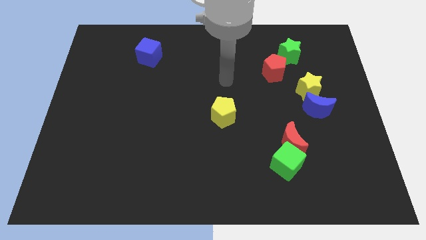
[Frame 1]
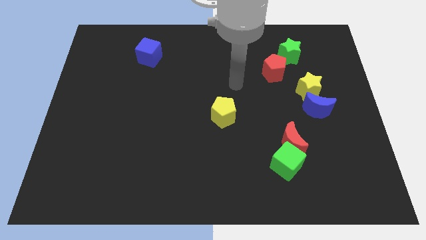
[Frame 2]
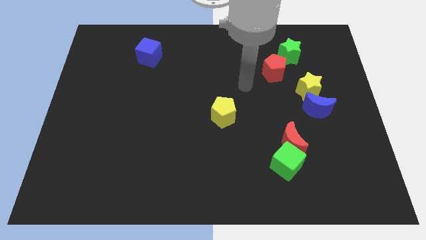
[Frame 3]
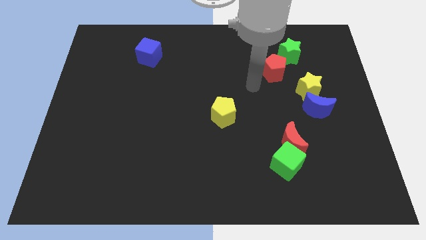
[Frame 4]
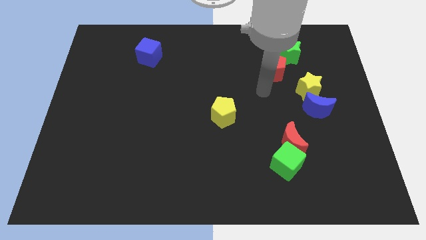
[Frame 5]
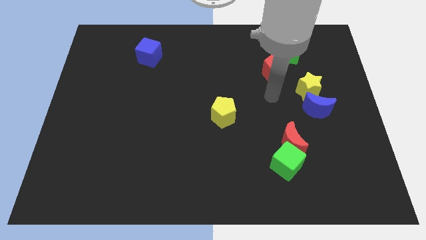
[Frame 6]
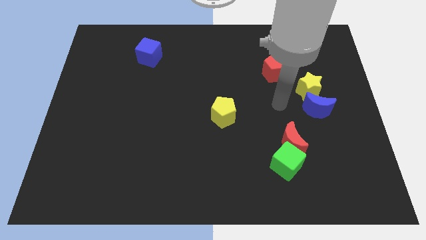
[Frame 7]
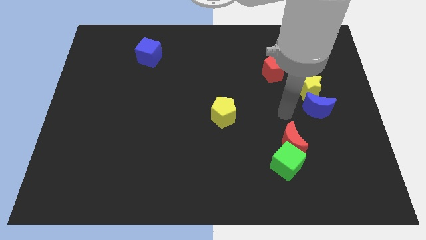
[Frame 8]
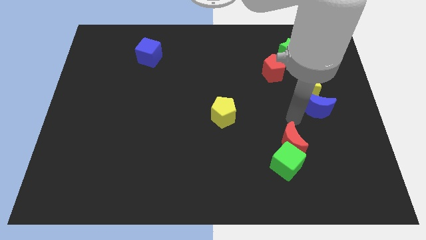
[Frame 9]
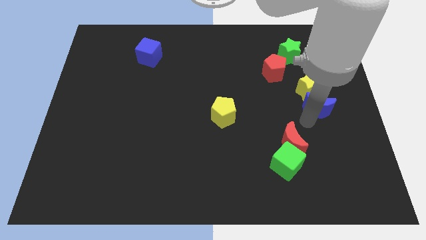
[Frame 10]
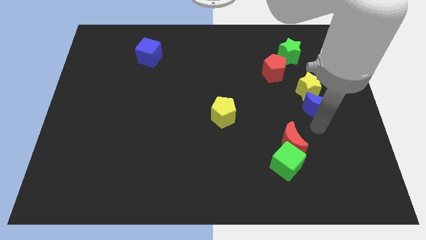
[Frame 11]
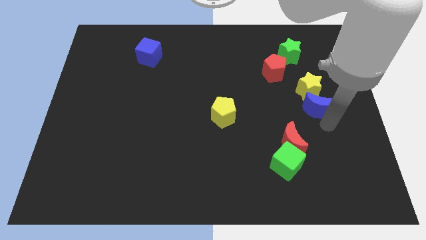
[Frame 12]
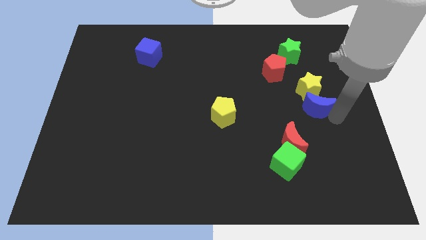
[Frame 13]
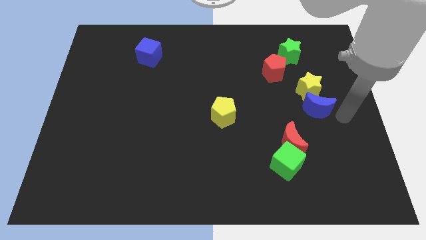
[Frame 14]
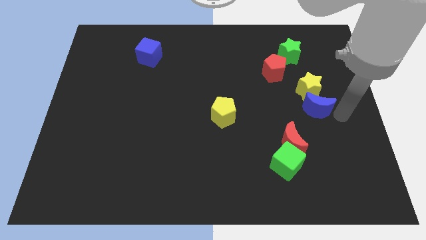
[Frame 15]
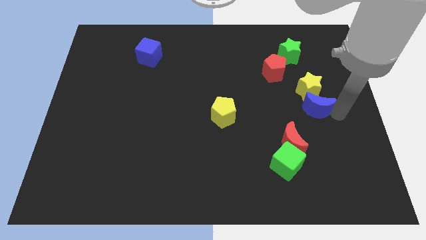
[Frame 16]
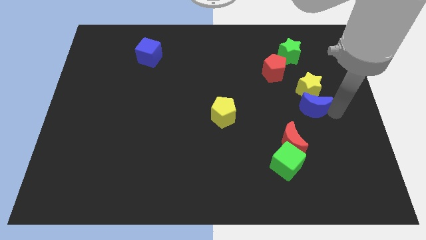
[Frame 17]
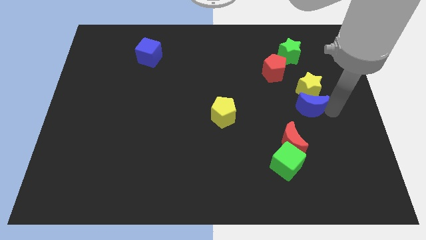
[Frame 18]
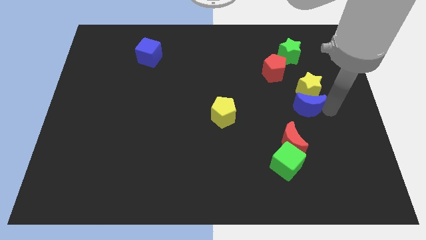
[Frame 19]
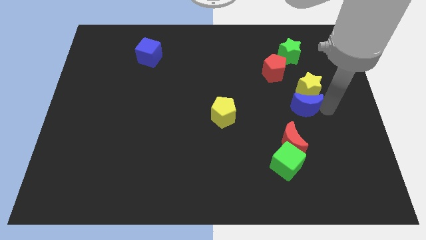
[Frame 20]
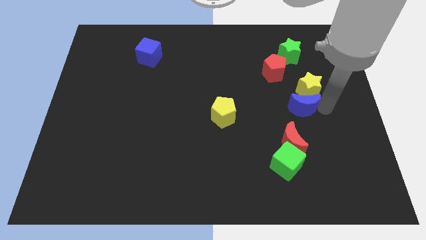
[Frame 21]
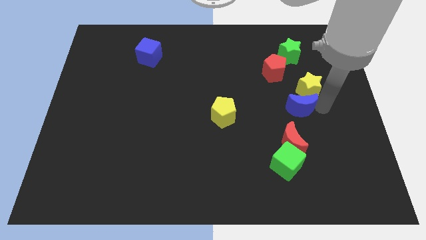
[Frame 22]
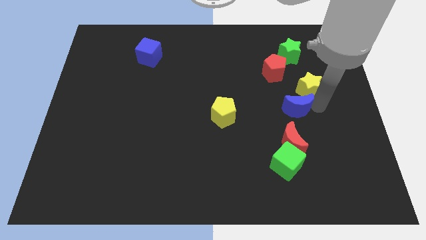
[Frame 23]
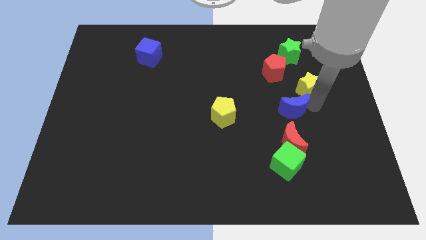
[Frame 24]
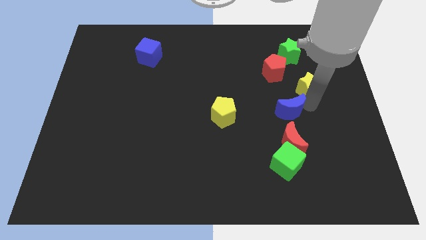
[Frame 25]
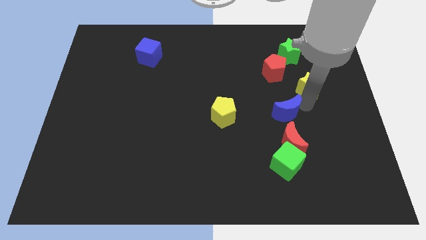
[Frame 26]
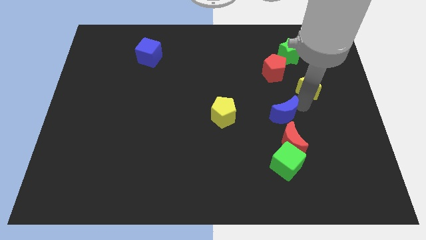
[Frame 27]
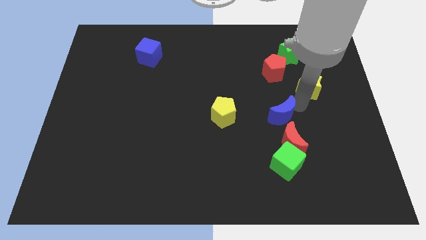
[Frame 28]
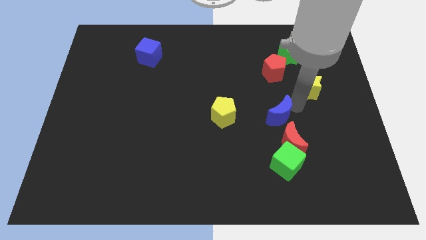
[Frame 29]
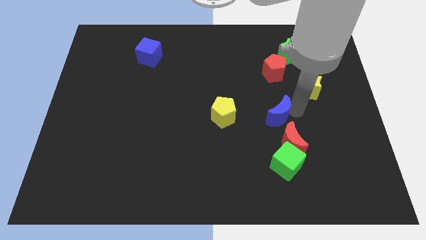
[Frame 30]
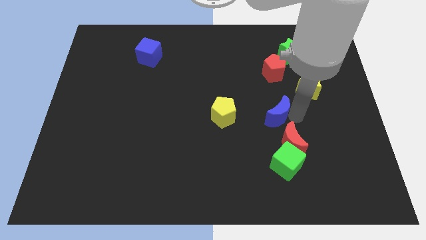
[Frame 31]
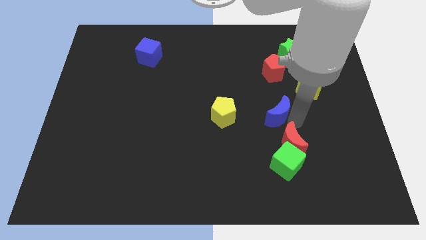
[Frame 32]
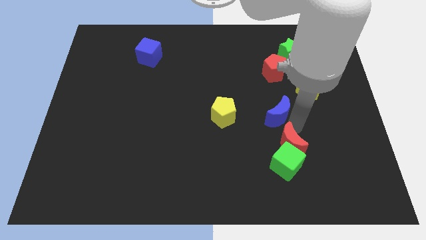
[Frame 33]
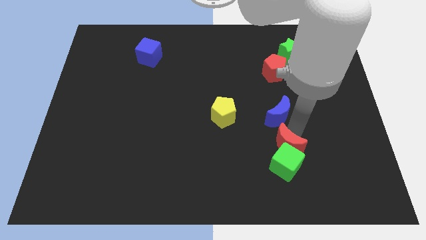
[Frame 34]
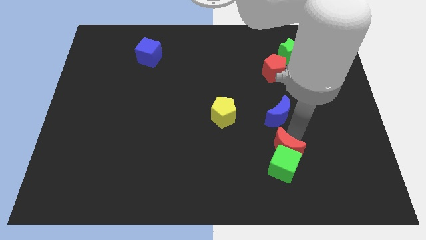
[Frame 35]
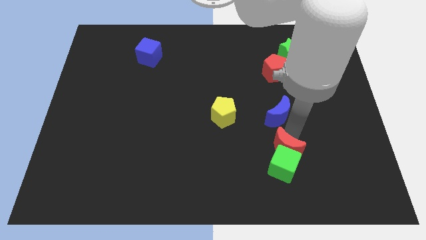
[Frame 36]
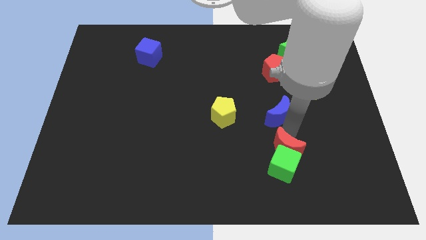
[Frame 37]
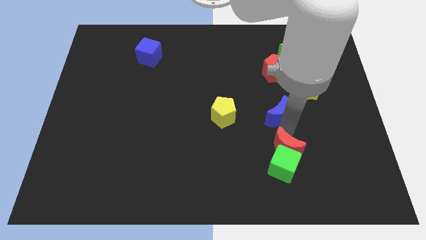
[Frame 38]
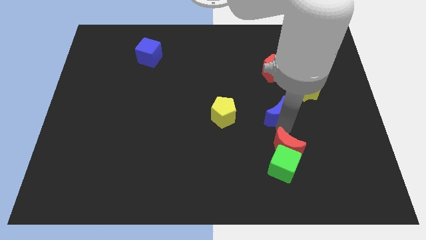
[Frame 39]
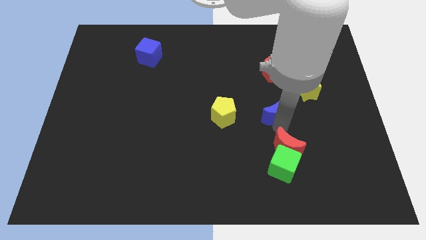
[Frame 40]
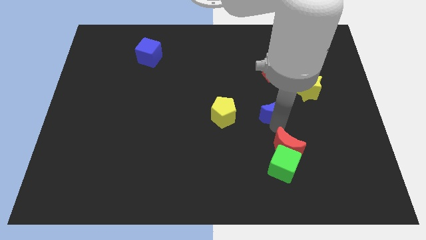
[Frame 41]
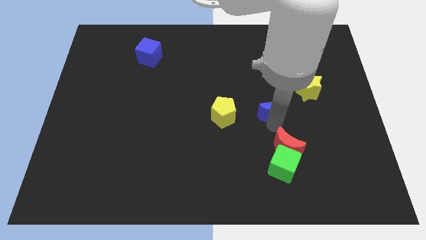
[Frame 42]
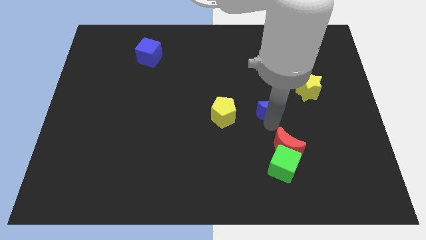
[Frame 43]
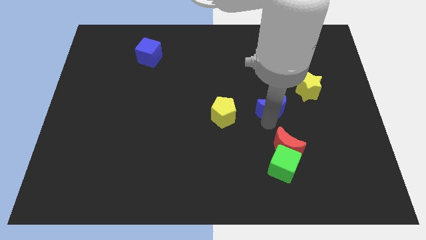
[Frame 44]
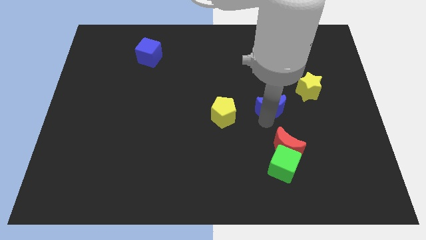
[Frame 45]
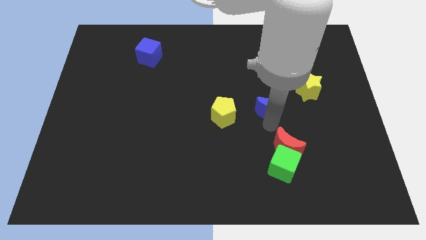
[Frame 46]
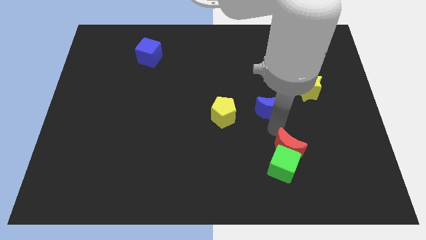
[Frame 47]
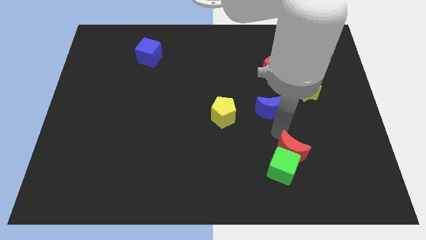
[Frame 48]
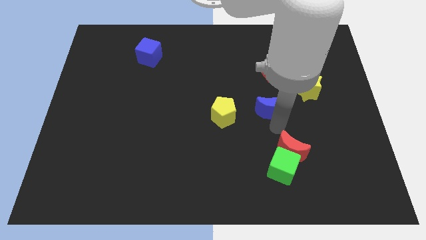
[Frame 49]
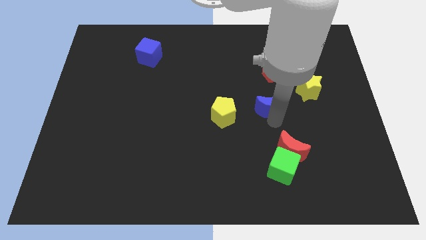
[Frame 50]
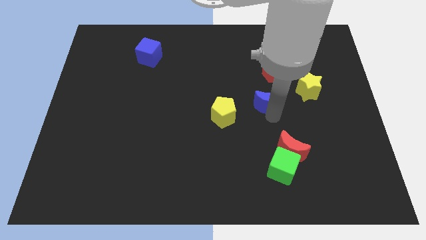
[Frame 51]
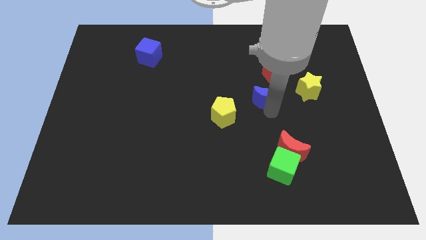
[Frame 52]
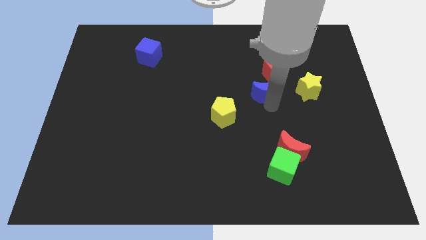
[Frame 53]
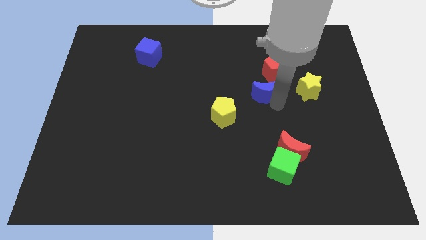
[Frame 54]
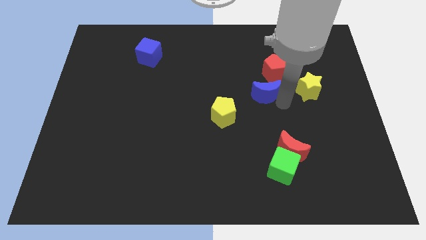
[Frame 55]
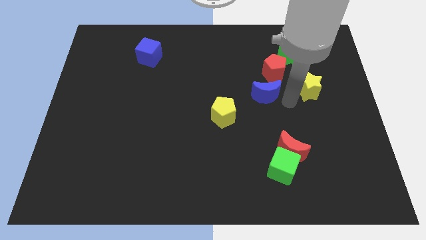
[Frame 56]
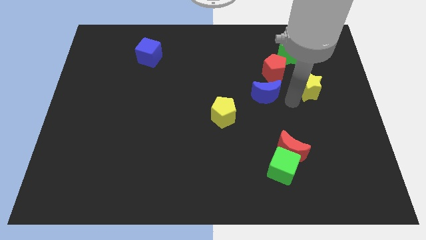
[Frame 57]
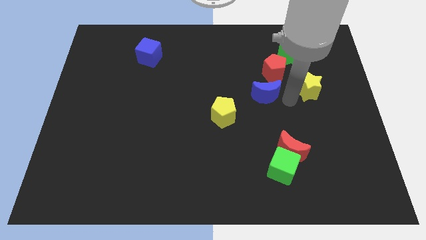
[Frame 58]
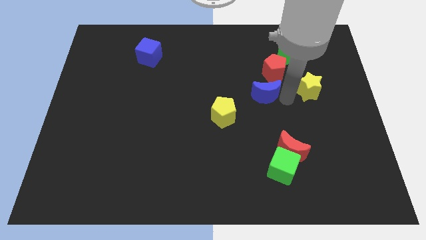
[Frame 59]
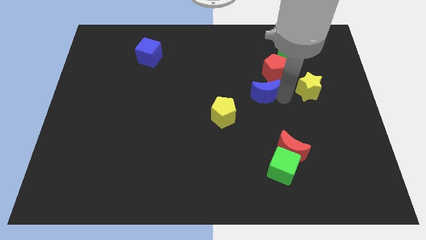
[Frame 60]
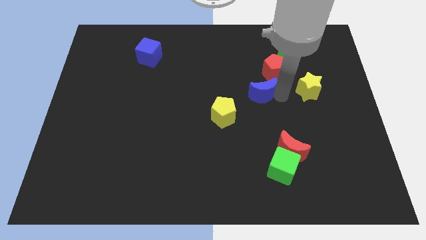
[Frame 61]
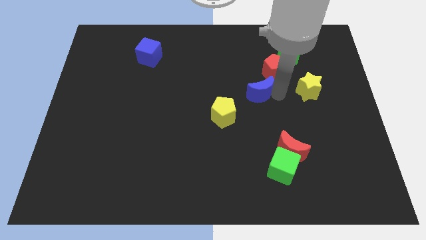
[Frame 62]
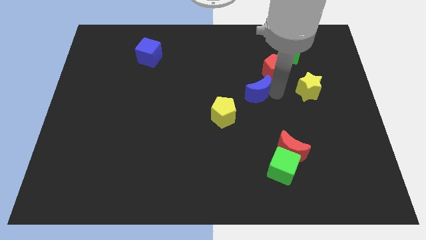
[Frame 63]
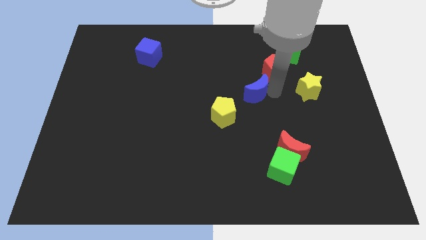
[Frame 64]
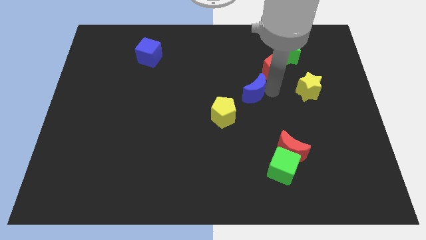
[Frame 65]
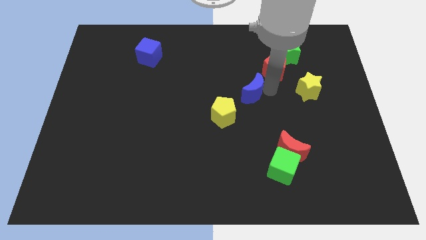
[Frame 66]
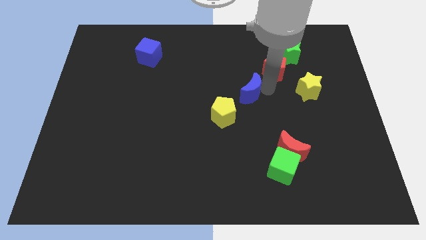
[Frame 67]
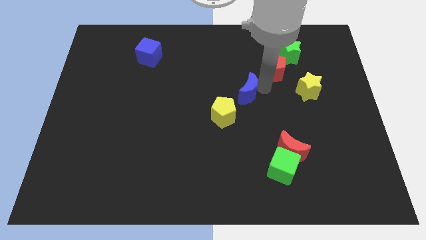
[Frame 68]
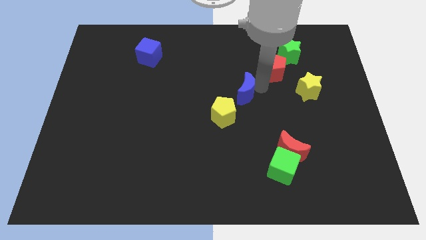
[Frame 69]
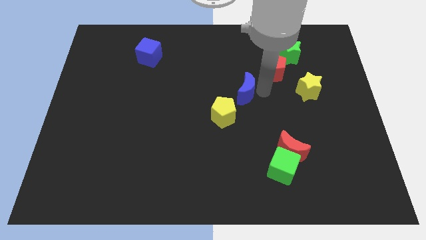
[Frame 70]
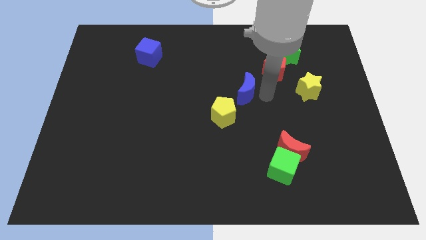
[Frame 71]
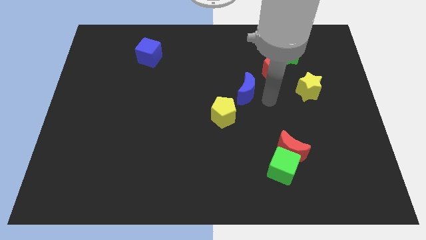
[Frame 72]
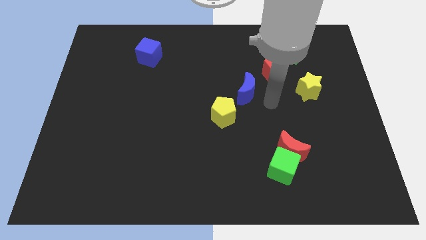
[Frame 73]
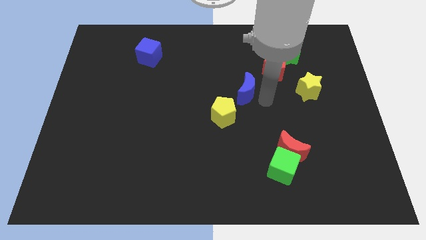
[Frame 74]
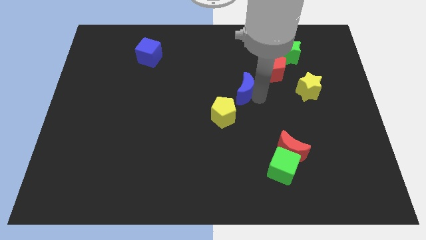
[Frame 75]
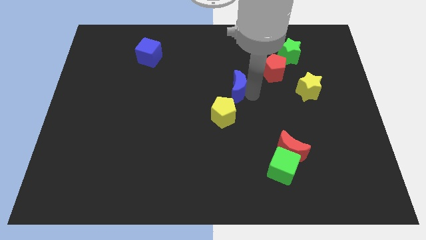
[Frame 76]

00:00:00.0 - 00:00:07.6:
push the blue moon to the top of the yellow pentagon
